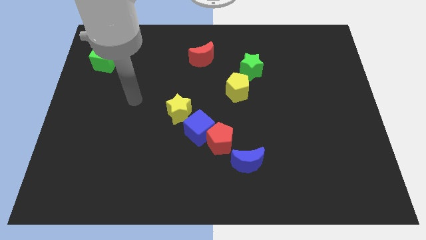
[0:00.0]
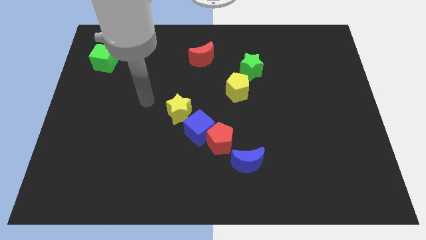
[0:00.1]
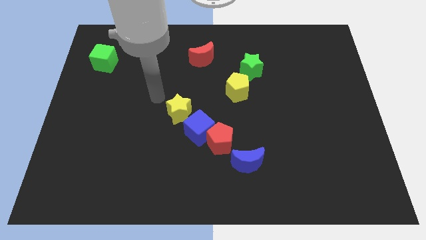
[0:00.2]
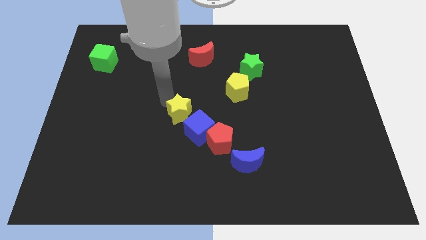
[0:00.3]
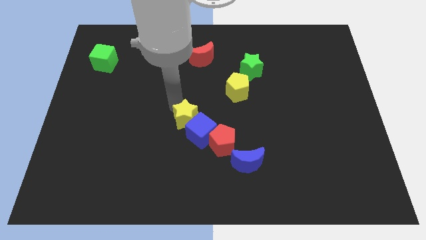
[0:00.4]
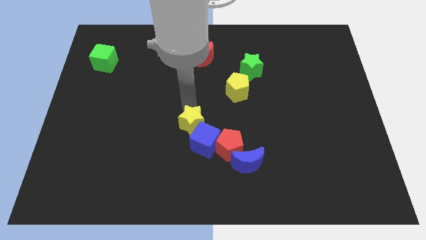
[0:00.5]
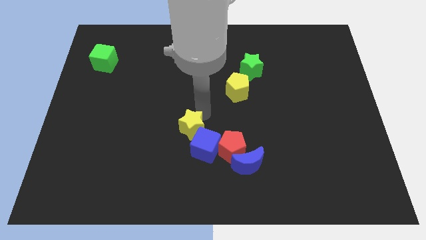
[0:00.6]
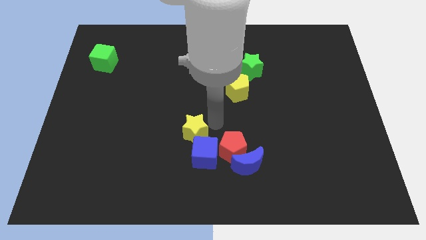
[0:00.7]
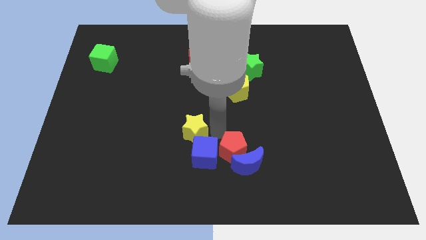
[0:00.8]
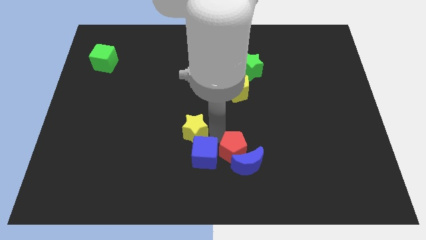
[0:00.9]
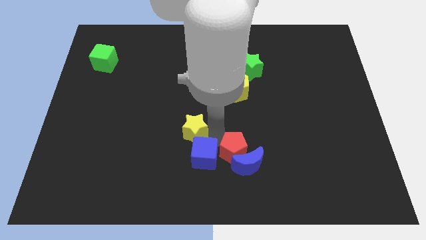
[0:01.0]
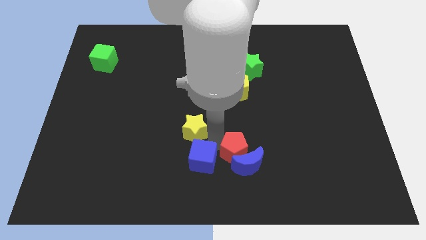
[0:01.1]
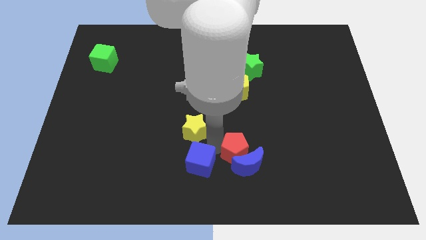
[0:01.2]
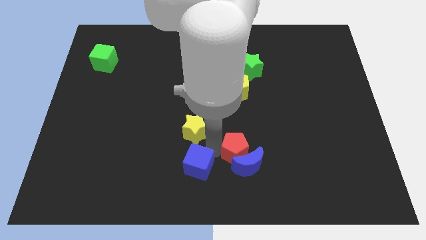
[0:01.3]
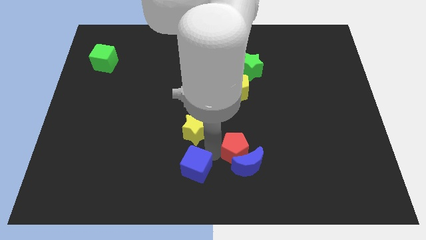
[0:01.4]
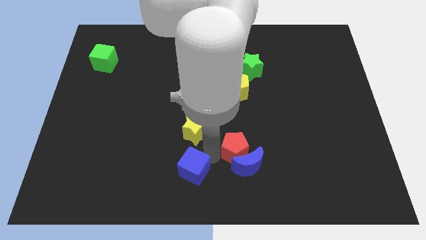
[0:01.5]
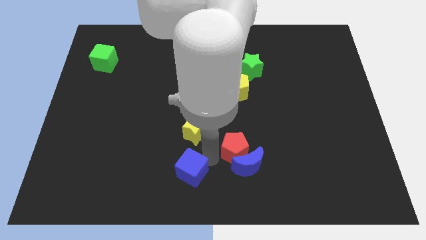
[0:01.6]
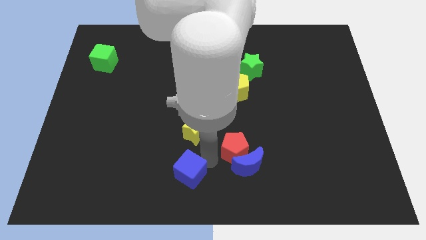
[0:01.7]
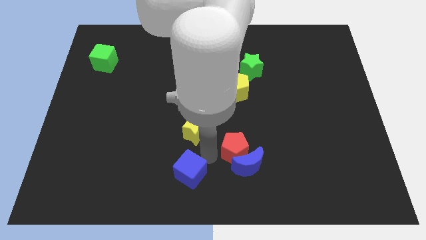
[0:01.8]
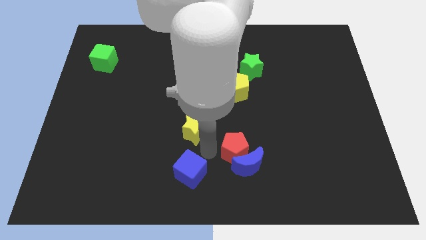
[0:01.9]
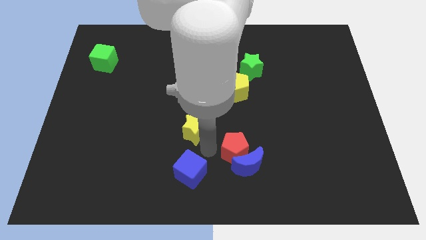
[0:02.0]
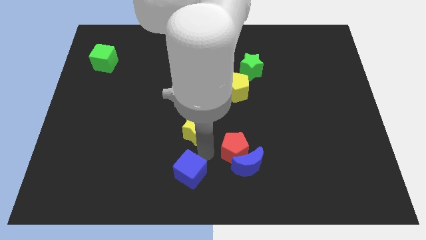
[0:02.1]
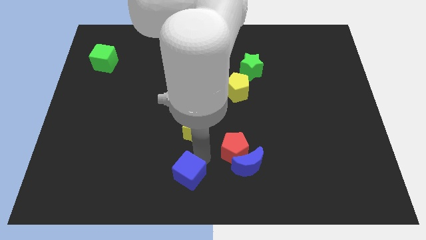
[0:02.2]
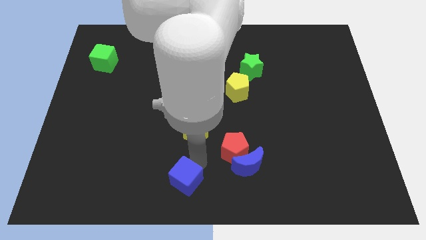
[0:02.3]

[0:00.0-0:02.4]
move the blue cube away from the red pentagon and yellow star

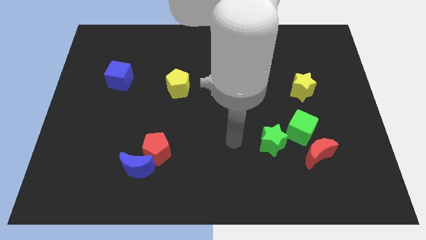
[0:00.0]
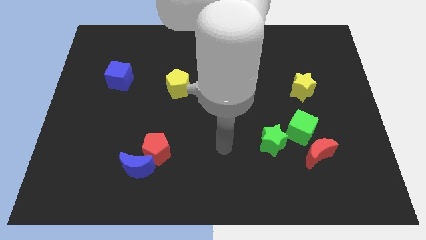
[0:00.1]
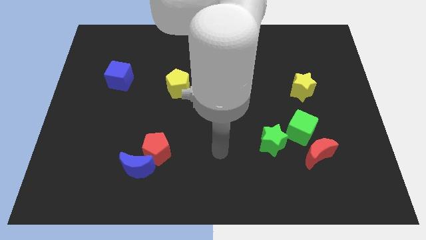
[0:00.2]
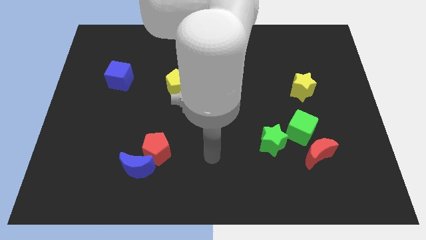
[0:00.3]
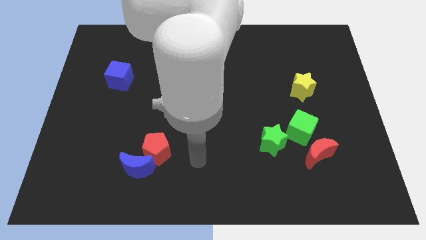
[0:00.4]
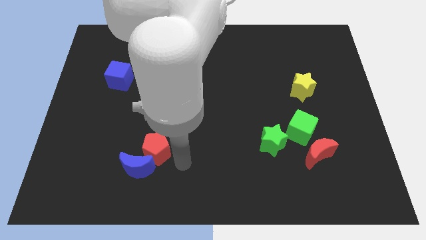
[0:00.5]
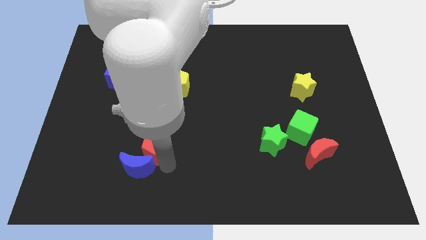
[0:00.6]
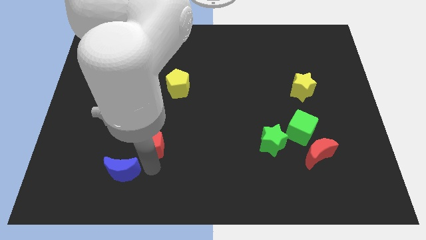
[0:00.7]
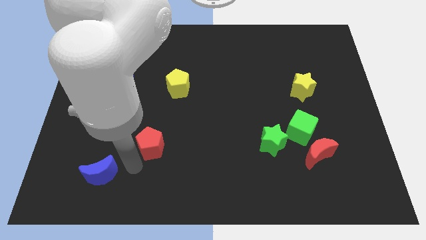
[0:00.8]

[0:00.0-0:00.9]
pull the red pentagon apart from the blue moon

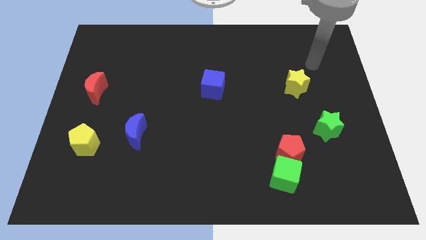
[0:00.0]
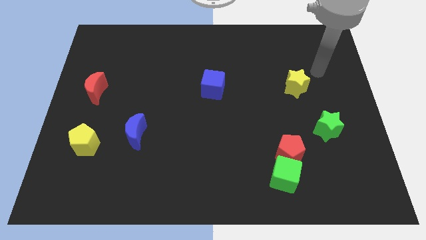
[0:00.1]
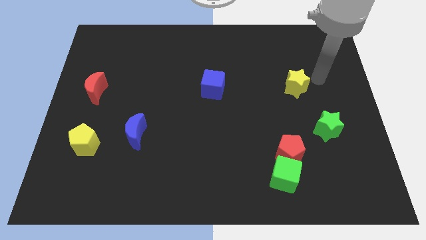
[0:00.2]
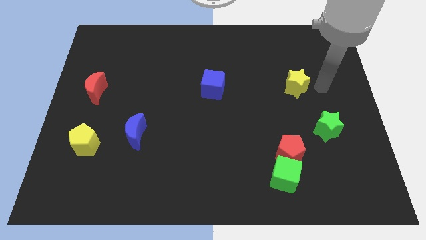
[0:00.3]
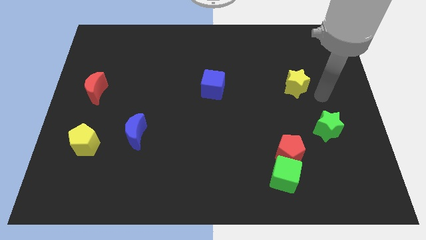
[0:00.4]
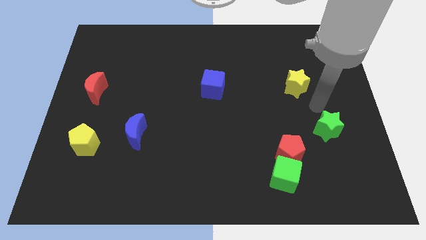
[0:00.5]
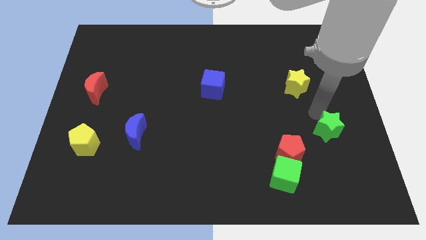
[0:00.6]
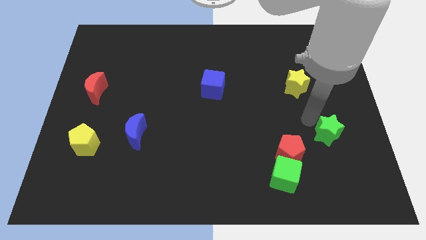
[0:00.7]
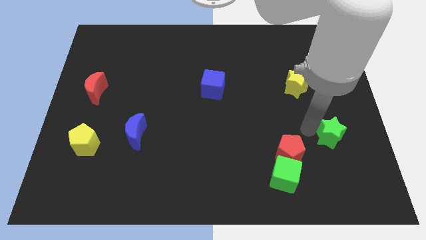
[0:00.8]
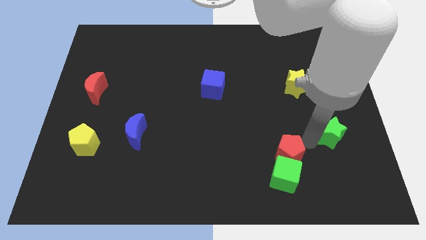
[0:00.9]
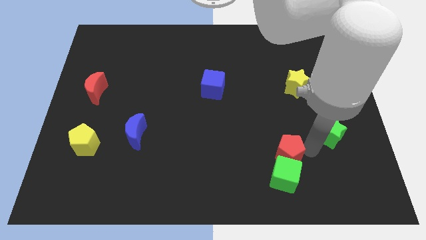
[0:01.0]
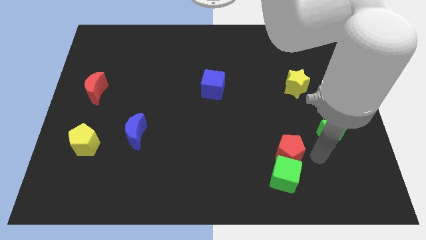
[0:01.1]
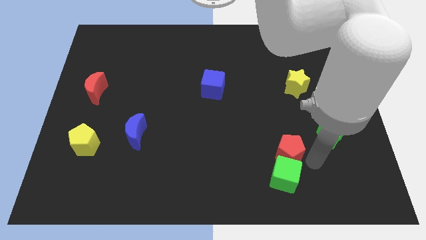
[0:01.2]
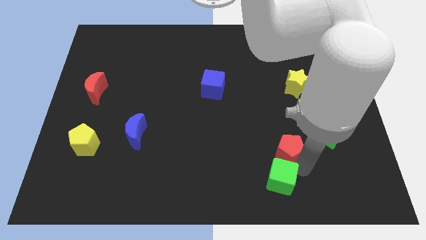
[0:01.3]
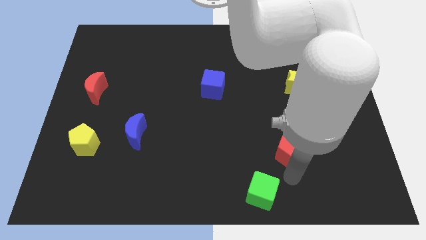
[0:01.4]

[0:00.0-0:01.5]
move the red pentagon away from the green cube

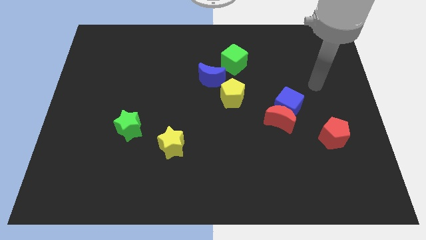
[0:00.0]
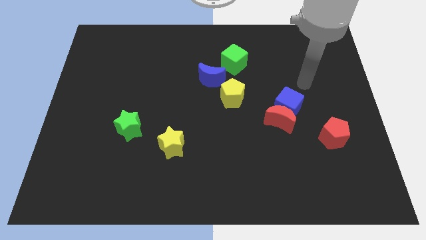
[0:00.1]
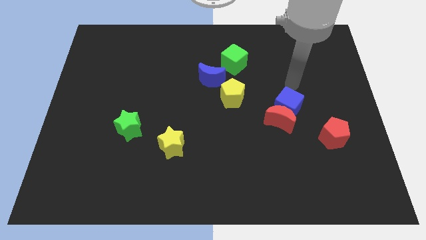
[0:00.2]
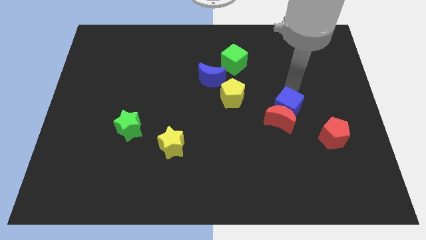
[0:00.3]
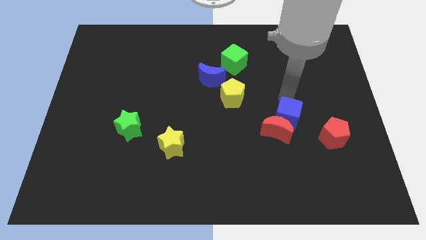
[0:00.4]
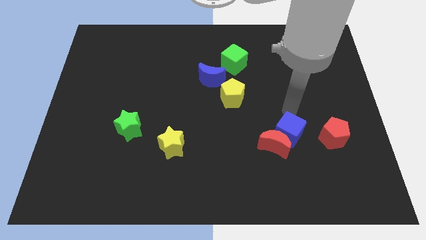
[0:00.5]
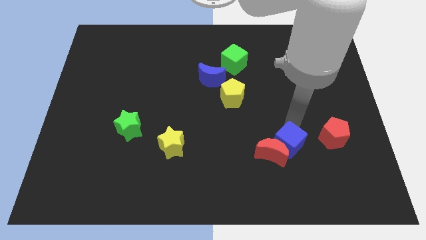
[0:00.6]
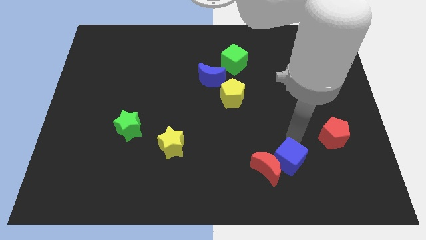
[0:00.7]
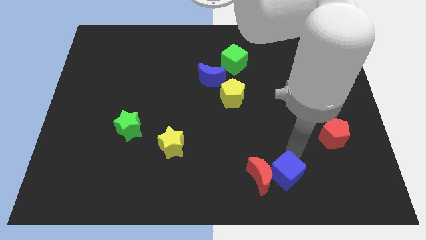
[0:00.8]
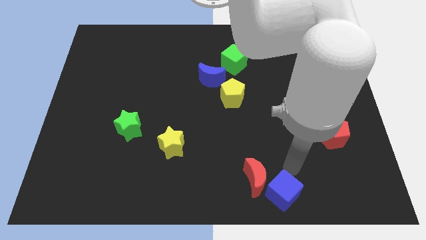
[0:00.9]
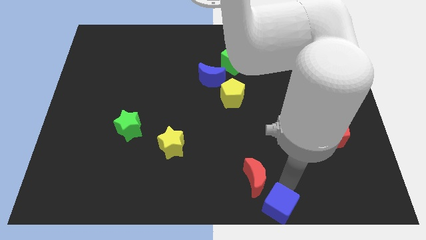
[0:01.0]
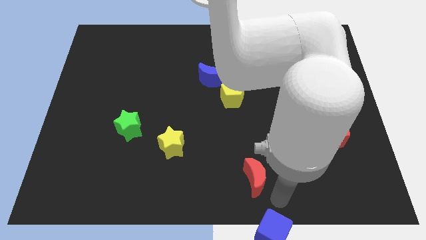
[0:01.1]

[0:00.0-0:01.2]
pull the red moon apart from the blue cube

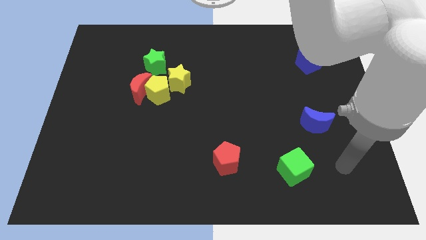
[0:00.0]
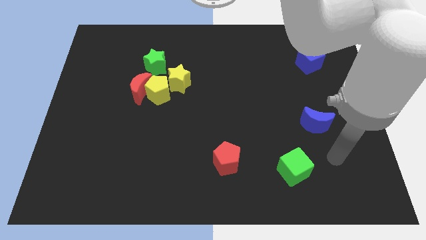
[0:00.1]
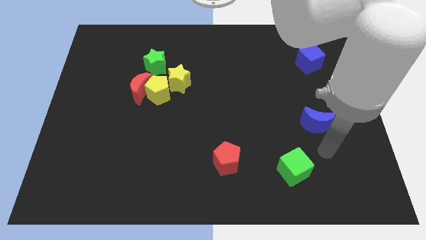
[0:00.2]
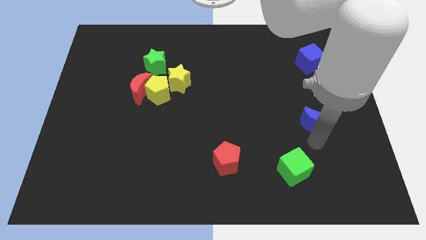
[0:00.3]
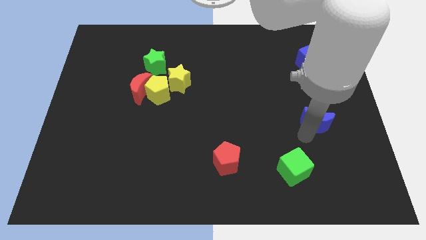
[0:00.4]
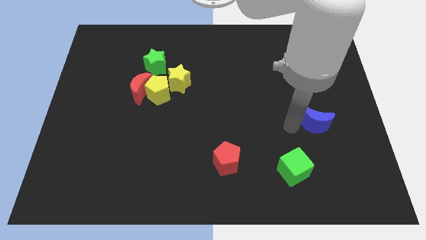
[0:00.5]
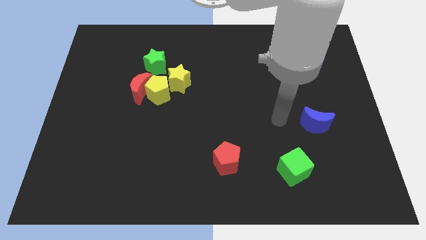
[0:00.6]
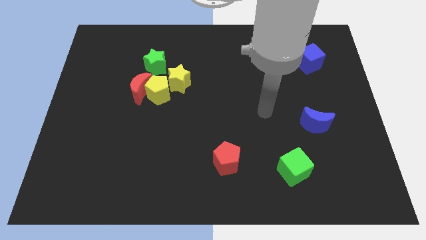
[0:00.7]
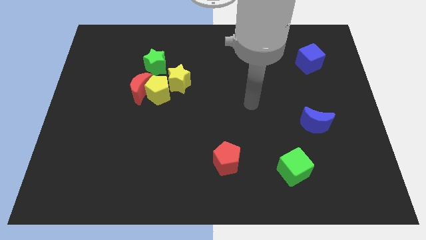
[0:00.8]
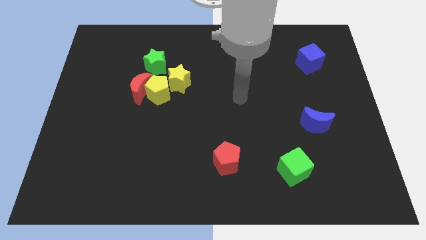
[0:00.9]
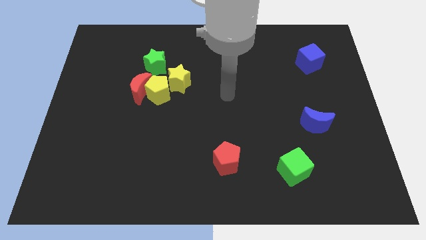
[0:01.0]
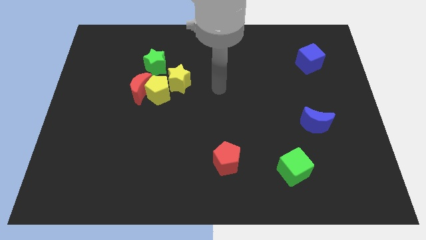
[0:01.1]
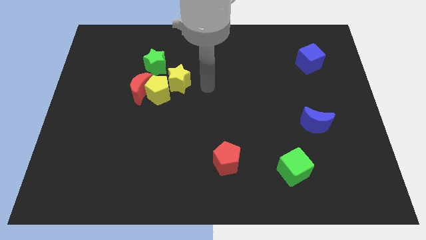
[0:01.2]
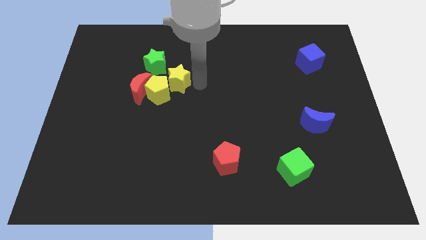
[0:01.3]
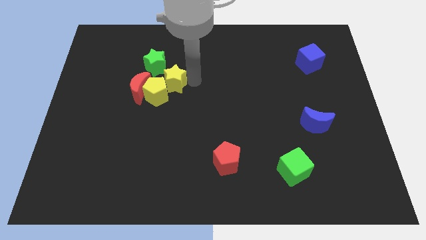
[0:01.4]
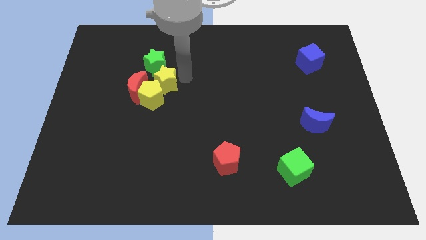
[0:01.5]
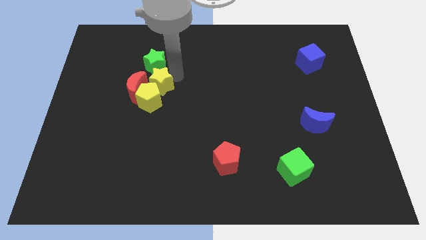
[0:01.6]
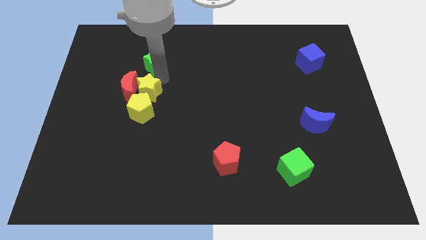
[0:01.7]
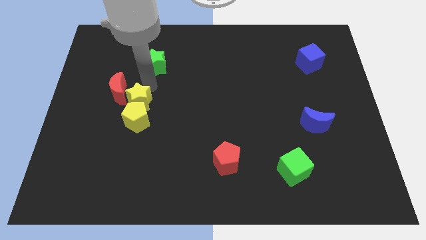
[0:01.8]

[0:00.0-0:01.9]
move the yellow pentagon away from the group of blocks

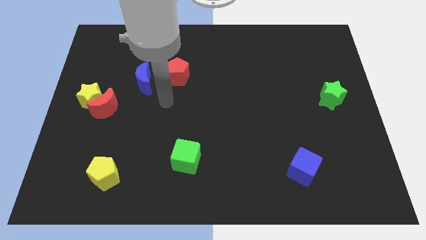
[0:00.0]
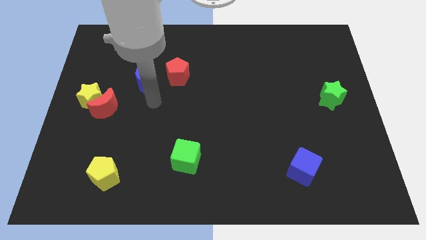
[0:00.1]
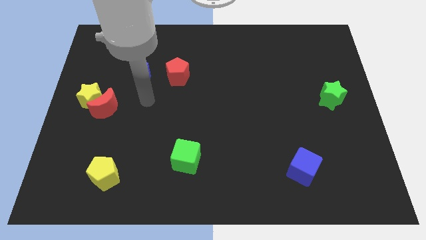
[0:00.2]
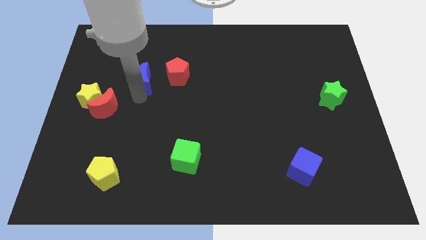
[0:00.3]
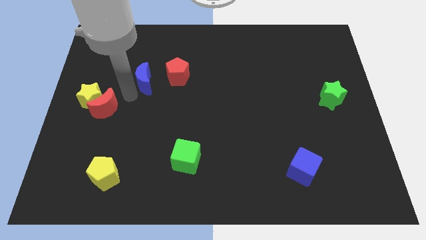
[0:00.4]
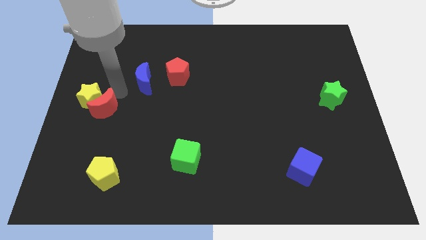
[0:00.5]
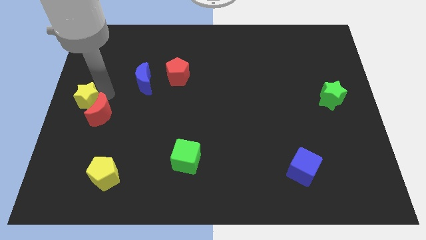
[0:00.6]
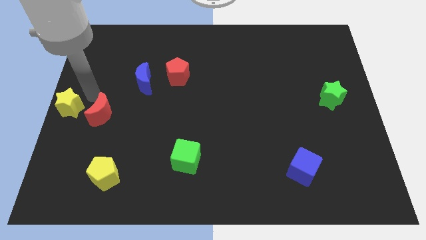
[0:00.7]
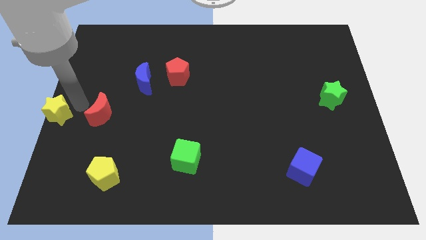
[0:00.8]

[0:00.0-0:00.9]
pull the red moon apart from the yellow star

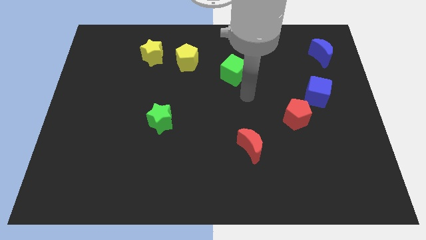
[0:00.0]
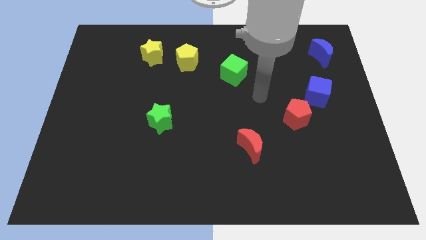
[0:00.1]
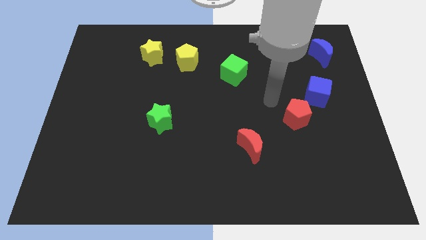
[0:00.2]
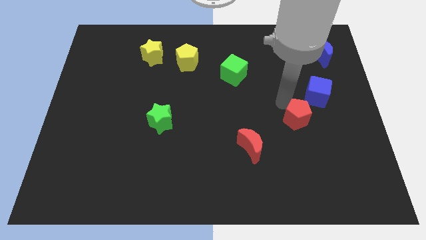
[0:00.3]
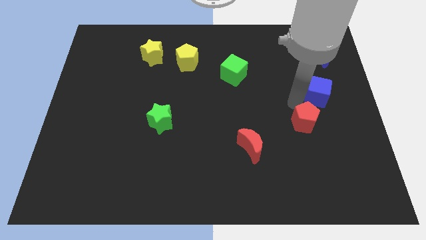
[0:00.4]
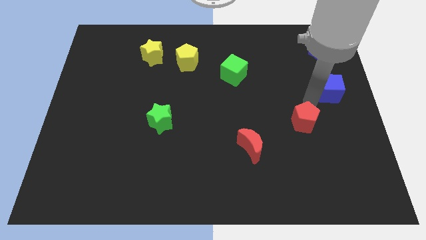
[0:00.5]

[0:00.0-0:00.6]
move the red pentagon away from the blue cube

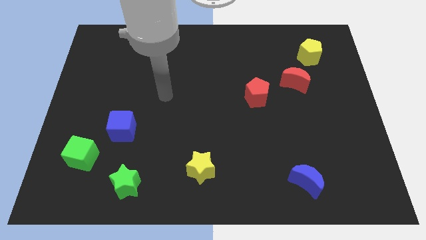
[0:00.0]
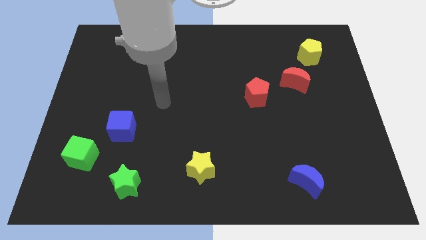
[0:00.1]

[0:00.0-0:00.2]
move the blue cube away from the green cube
